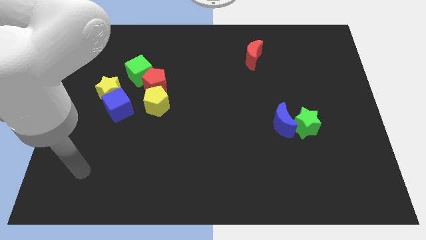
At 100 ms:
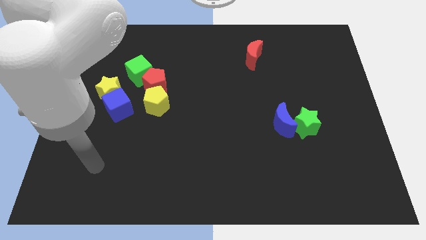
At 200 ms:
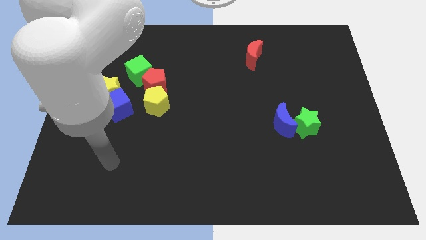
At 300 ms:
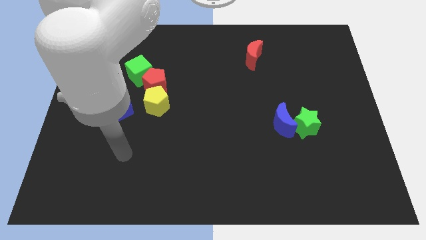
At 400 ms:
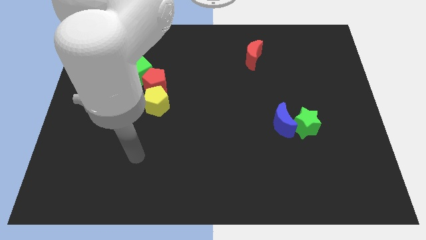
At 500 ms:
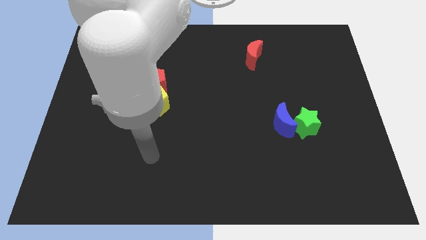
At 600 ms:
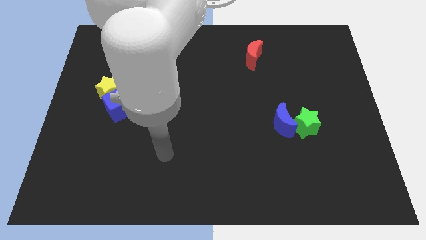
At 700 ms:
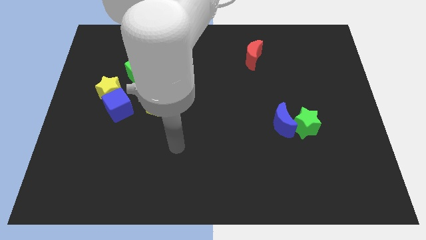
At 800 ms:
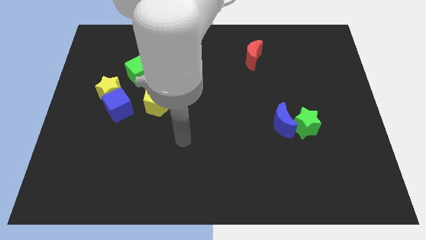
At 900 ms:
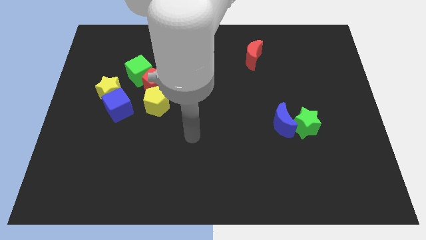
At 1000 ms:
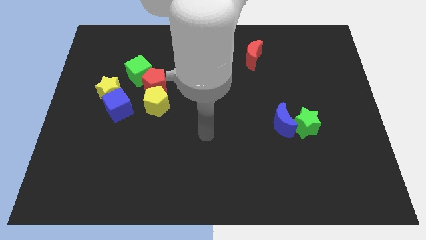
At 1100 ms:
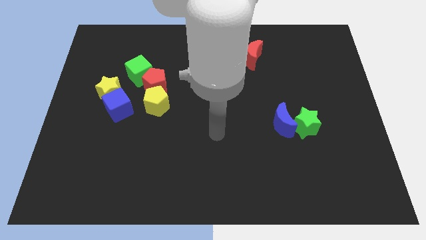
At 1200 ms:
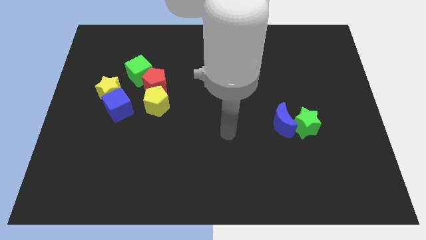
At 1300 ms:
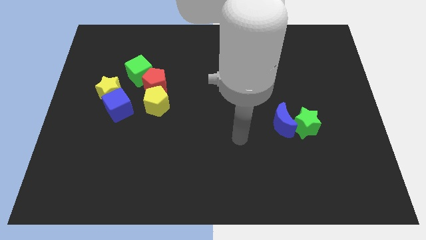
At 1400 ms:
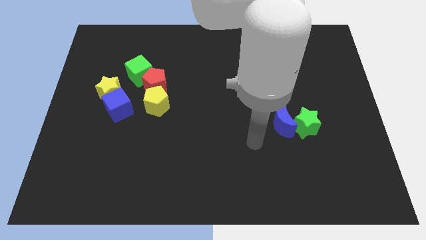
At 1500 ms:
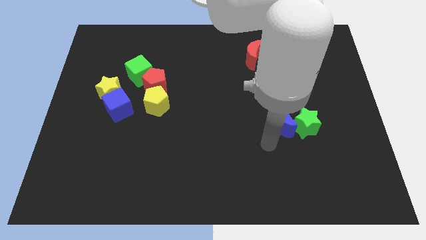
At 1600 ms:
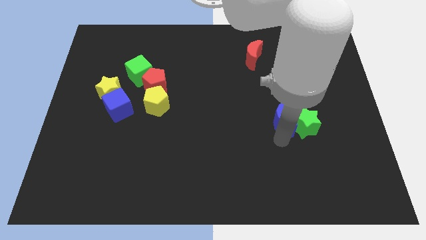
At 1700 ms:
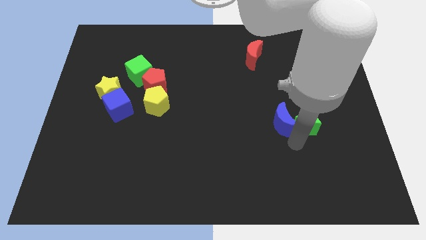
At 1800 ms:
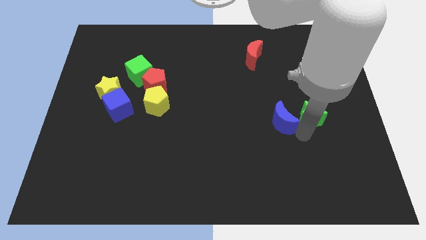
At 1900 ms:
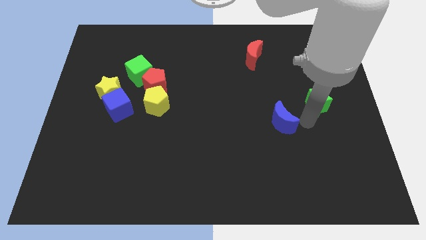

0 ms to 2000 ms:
move the blue moon away from the green star

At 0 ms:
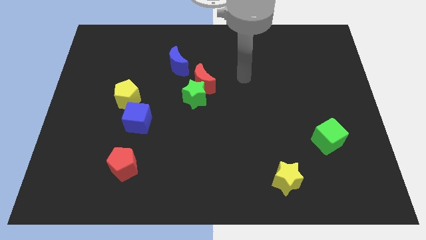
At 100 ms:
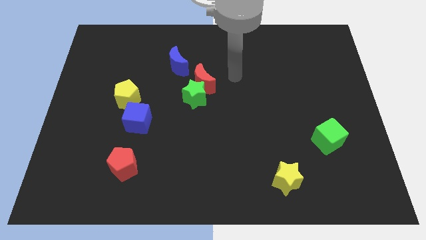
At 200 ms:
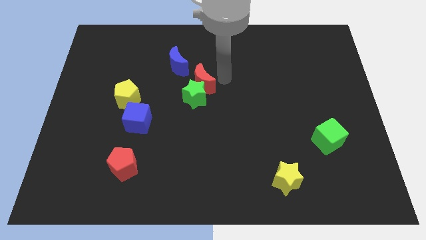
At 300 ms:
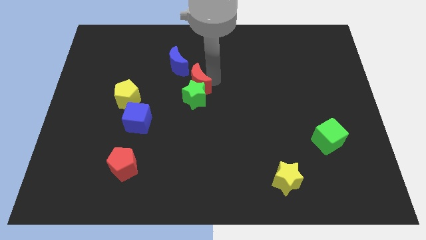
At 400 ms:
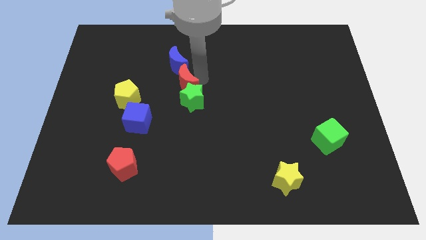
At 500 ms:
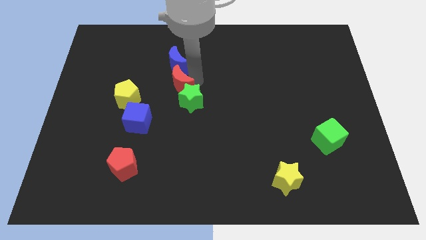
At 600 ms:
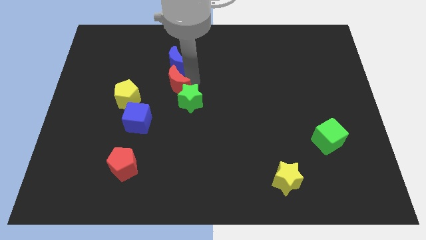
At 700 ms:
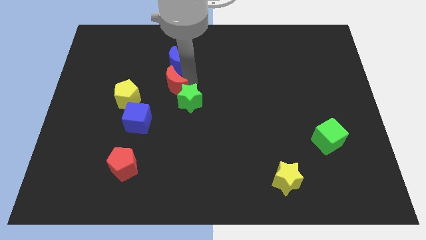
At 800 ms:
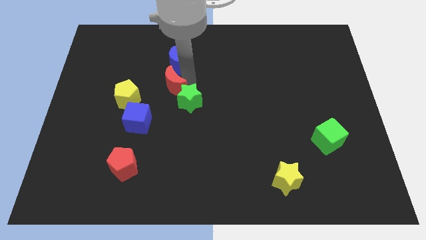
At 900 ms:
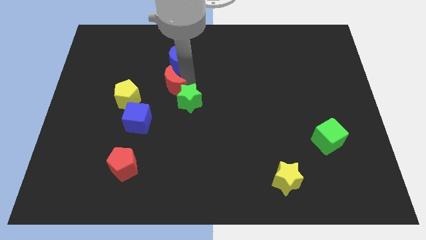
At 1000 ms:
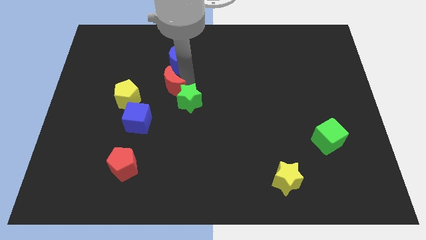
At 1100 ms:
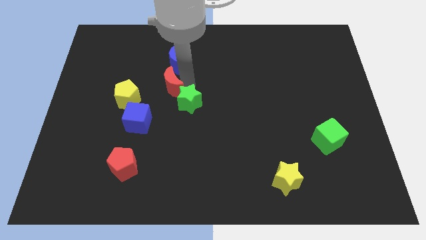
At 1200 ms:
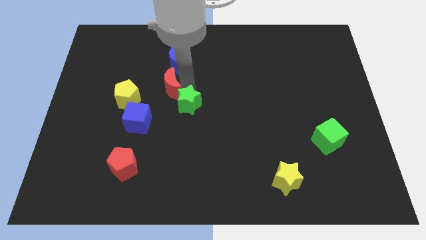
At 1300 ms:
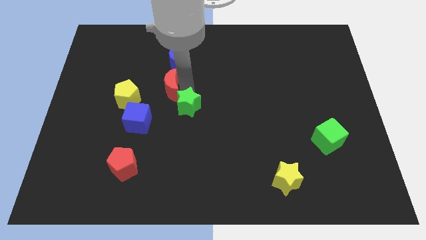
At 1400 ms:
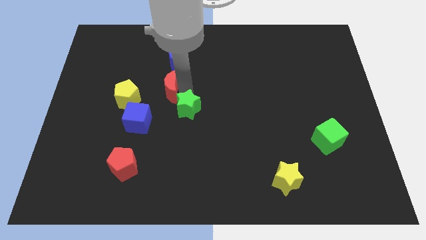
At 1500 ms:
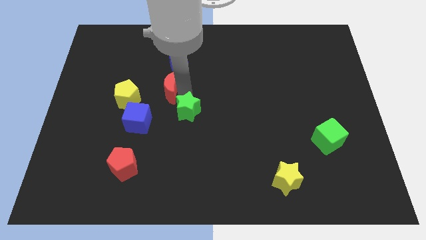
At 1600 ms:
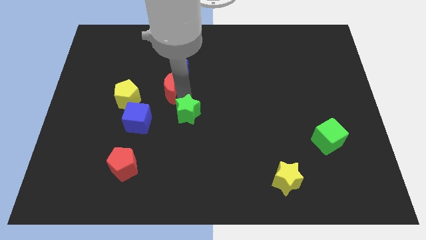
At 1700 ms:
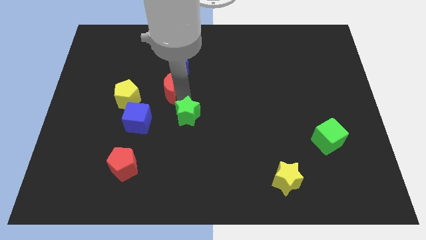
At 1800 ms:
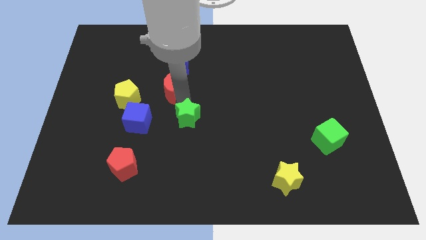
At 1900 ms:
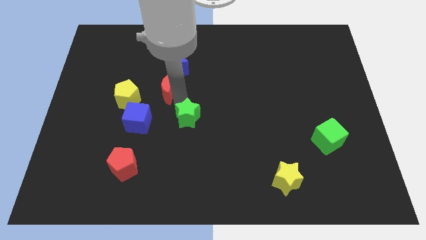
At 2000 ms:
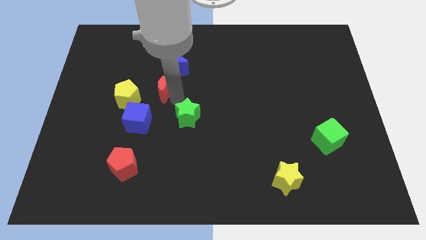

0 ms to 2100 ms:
separate the green star from the red moon

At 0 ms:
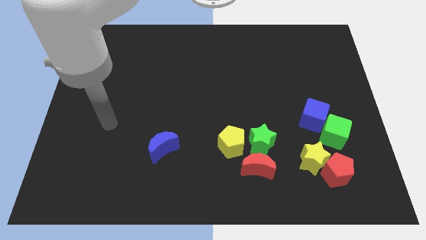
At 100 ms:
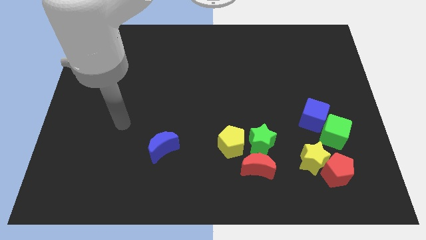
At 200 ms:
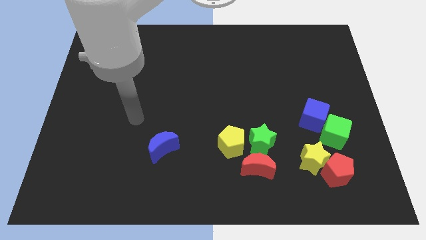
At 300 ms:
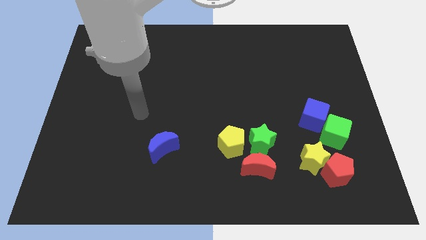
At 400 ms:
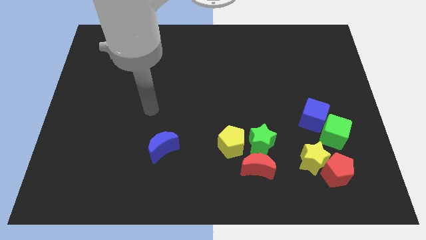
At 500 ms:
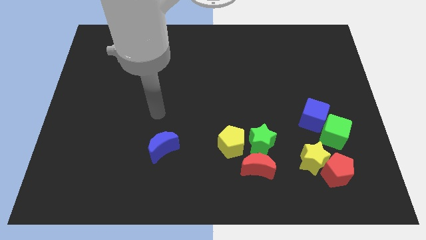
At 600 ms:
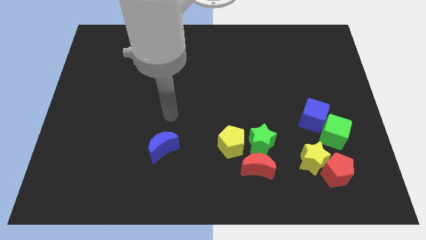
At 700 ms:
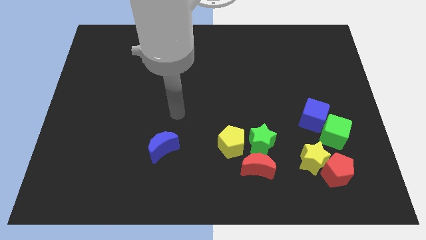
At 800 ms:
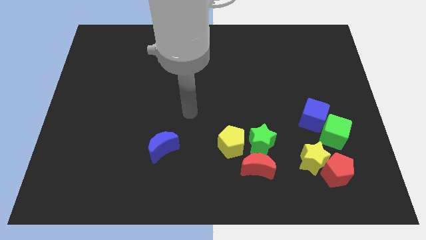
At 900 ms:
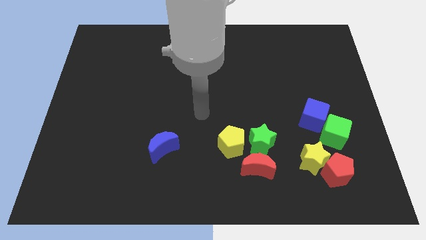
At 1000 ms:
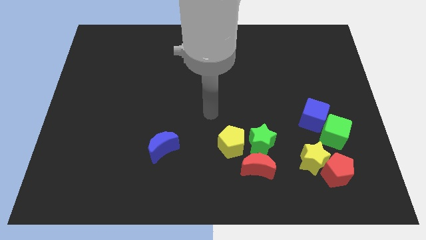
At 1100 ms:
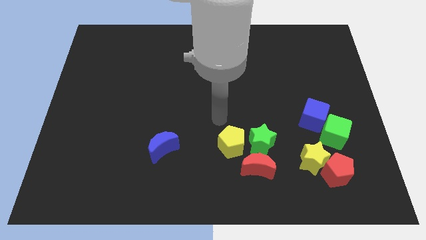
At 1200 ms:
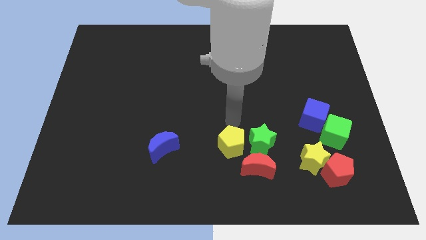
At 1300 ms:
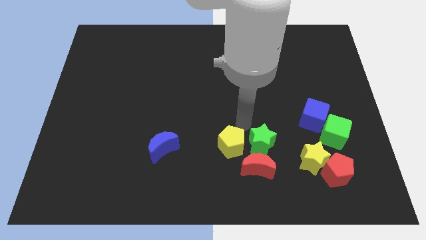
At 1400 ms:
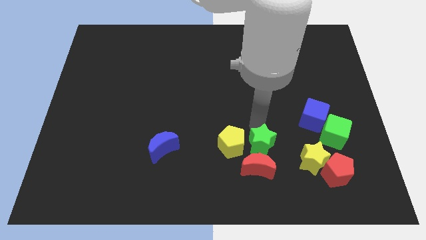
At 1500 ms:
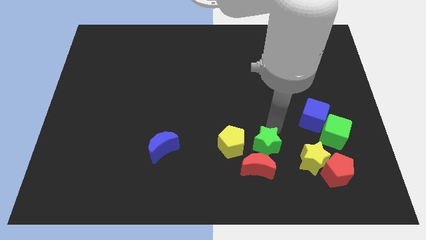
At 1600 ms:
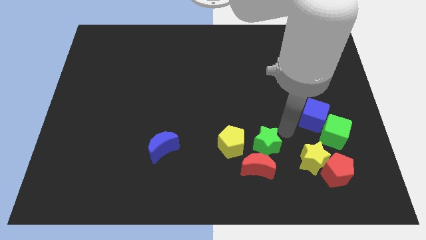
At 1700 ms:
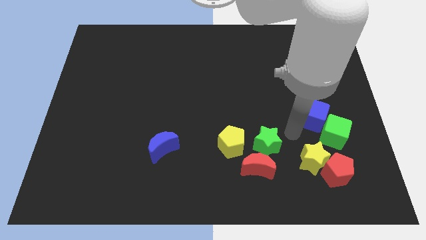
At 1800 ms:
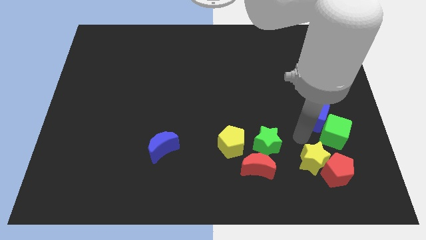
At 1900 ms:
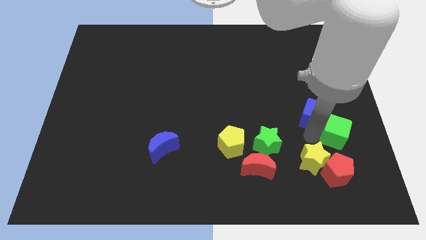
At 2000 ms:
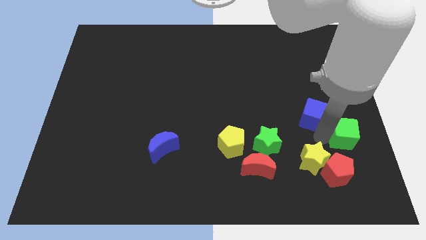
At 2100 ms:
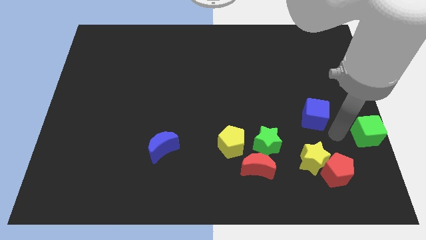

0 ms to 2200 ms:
move the blue cube away from the green cube

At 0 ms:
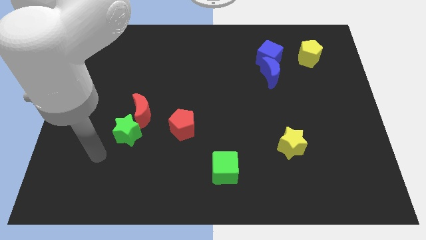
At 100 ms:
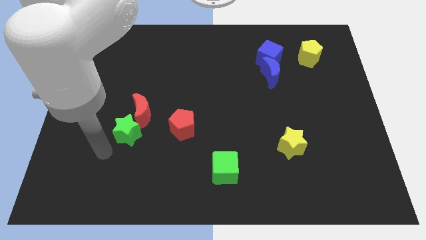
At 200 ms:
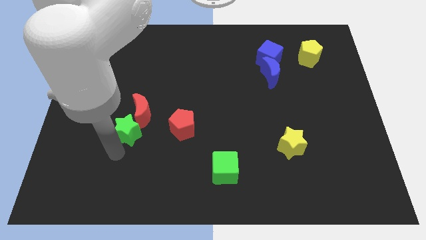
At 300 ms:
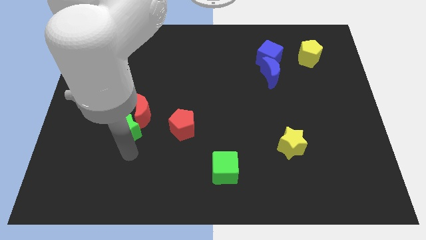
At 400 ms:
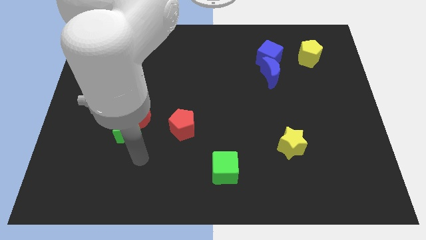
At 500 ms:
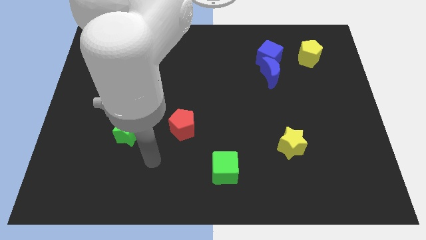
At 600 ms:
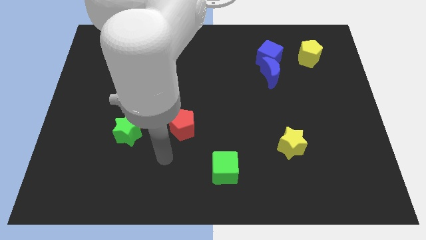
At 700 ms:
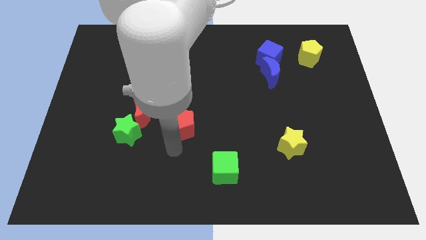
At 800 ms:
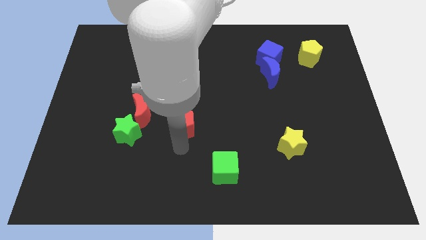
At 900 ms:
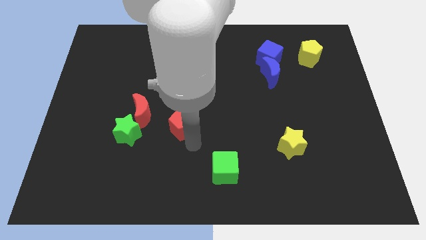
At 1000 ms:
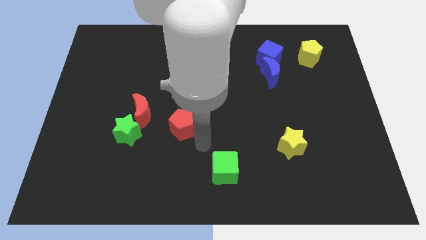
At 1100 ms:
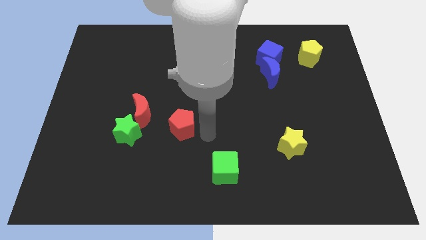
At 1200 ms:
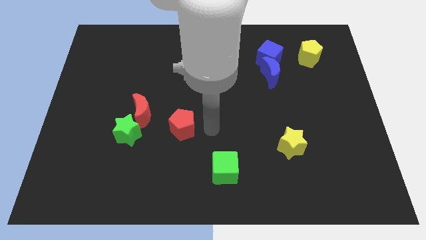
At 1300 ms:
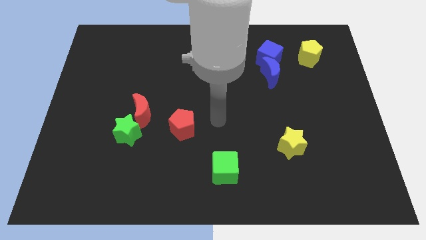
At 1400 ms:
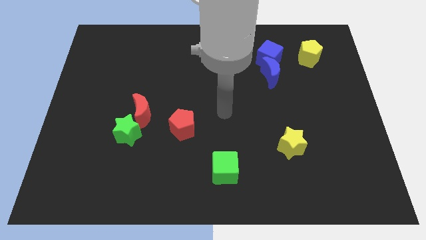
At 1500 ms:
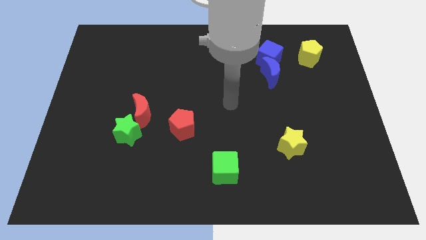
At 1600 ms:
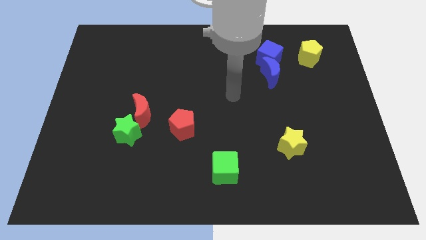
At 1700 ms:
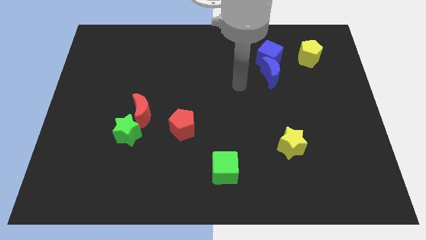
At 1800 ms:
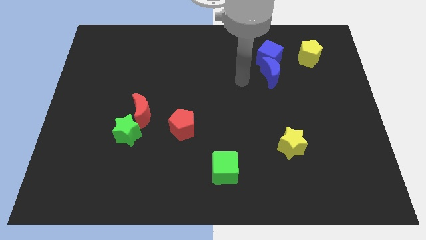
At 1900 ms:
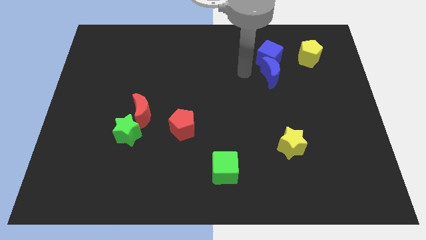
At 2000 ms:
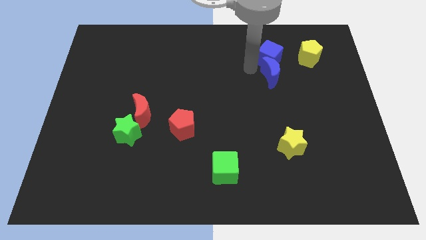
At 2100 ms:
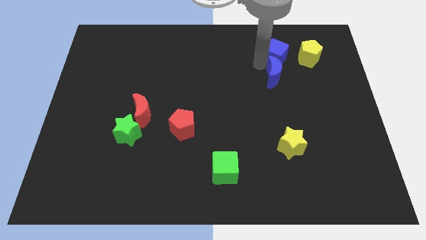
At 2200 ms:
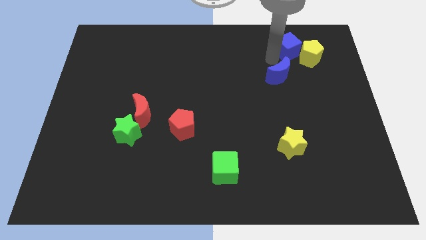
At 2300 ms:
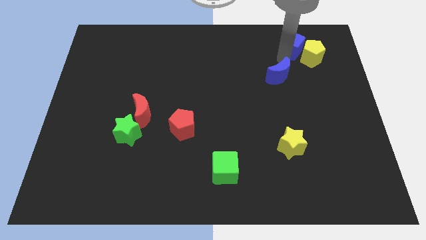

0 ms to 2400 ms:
pull the blue moon apart from the blue cube

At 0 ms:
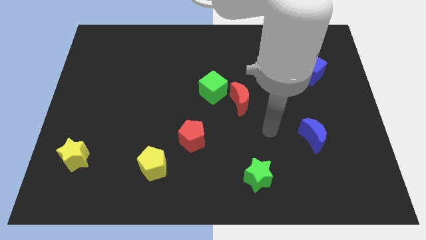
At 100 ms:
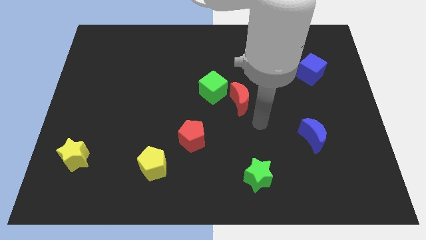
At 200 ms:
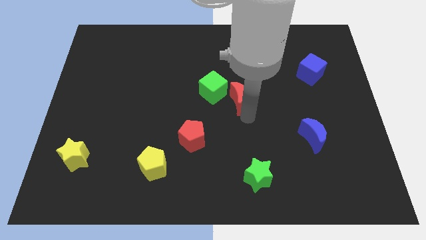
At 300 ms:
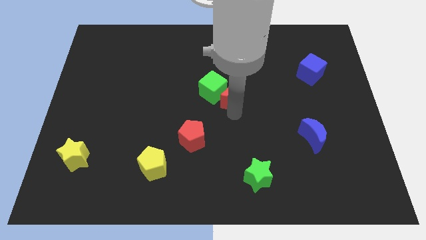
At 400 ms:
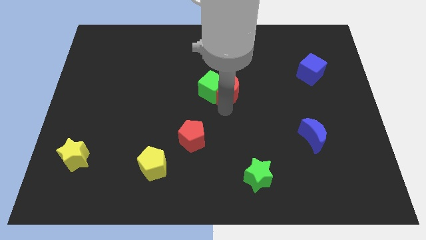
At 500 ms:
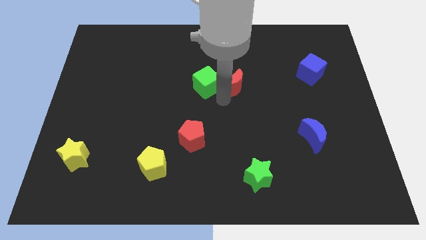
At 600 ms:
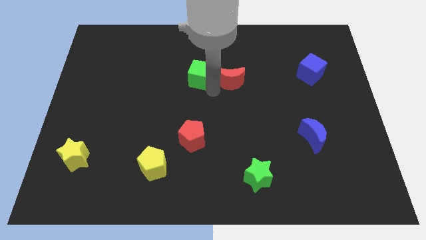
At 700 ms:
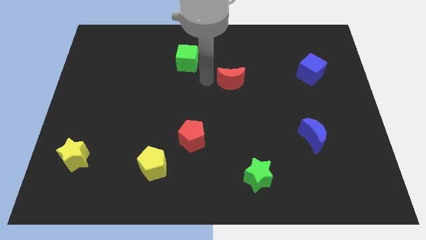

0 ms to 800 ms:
separate the red moon from the green cube
